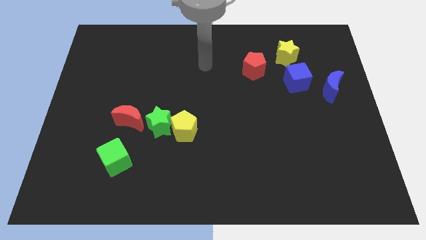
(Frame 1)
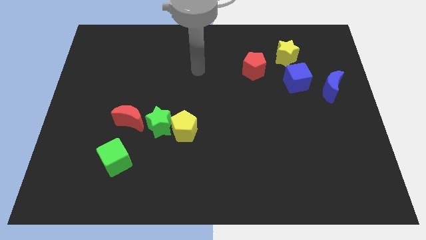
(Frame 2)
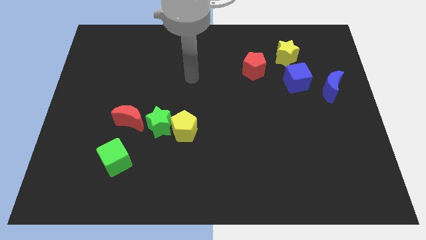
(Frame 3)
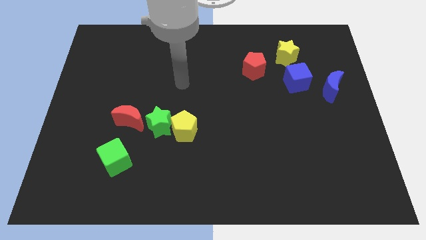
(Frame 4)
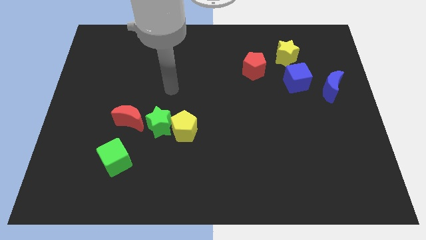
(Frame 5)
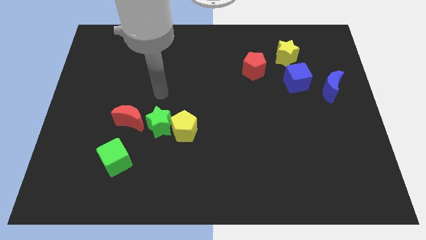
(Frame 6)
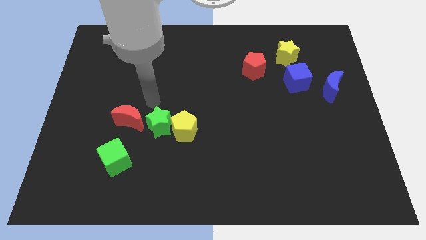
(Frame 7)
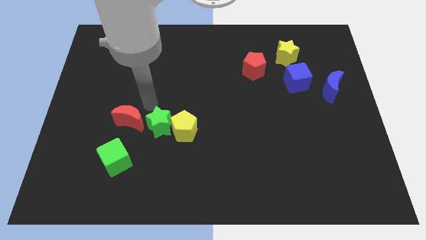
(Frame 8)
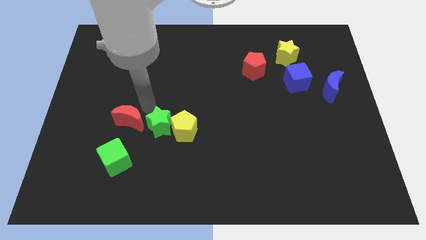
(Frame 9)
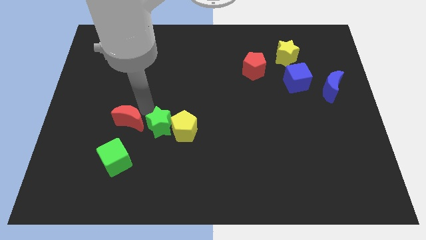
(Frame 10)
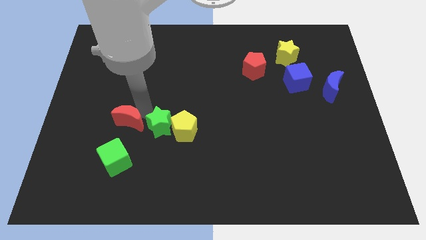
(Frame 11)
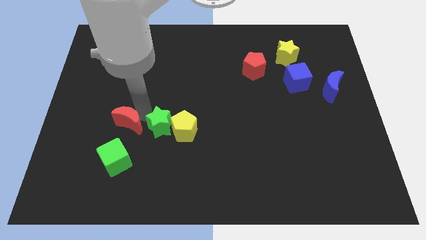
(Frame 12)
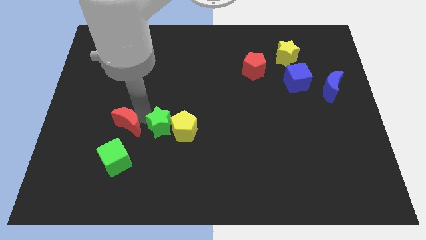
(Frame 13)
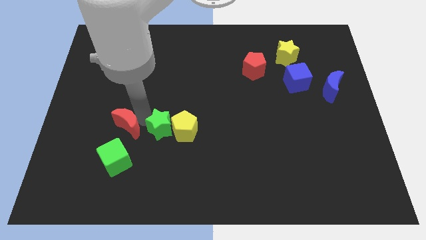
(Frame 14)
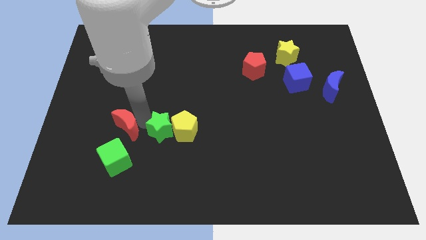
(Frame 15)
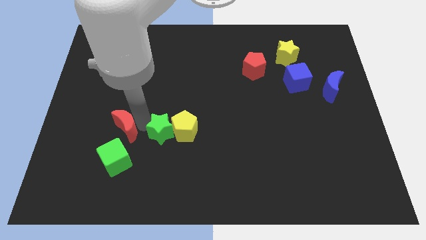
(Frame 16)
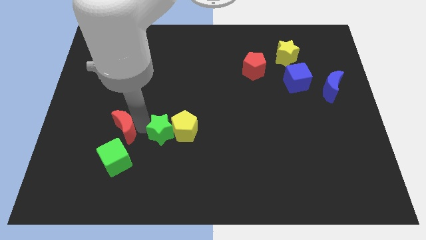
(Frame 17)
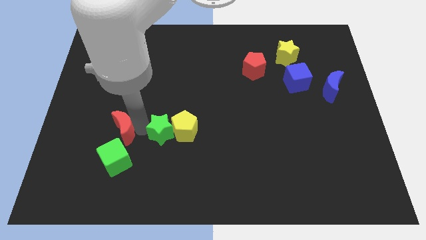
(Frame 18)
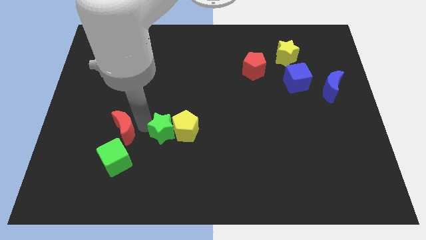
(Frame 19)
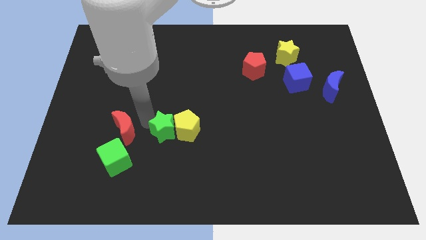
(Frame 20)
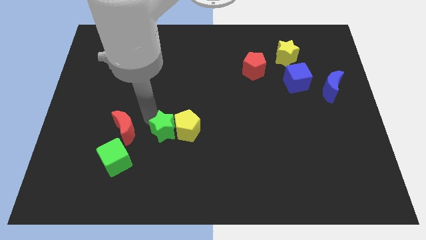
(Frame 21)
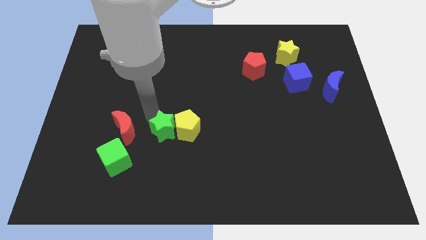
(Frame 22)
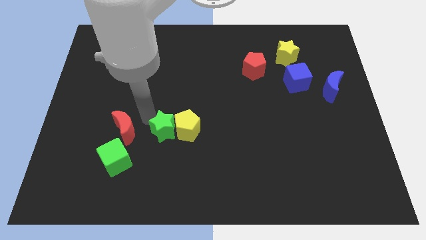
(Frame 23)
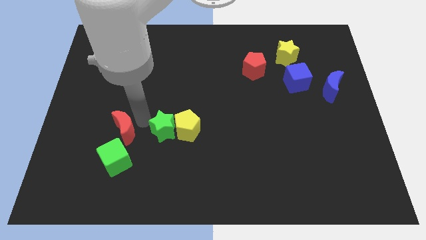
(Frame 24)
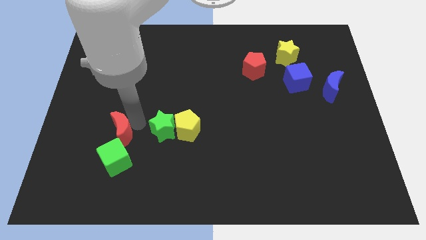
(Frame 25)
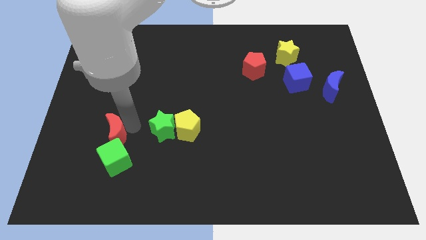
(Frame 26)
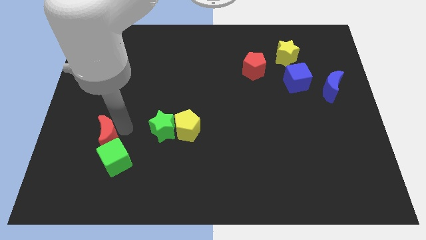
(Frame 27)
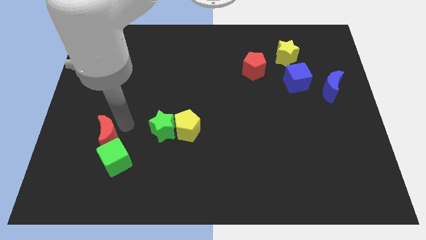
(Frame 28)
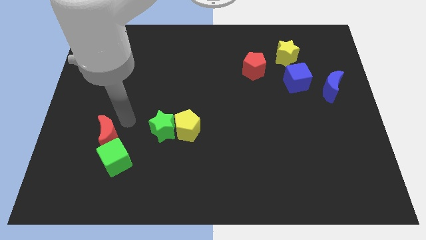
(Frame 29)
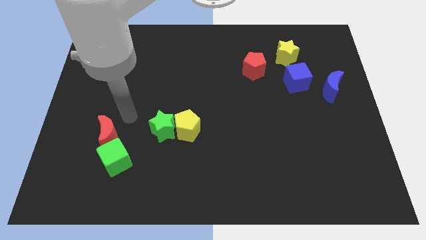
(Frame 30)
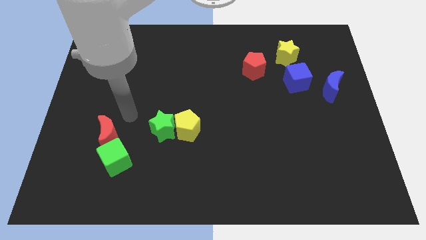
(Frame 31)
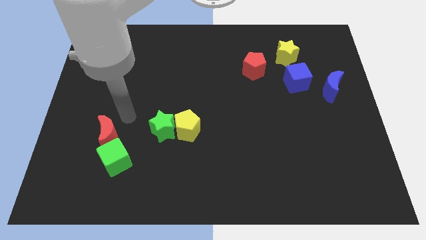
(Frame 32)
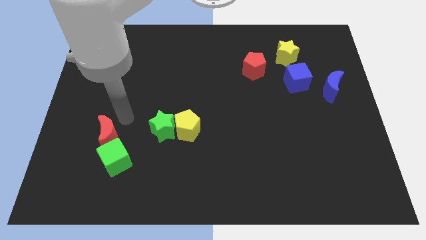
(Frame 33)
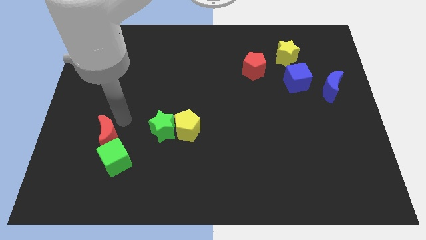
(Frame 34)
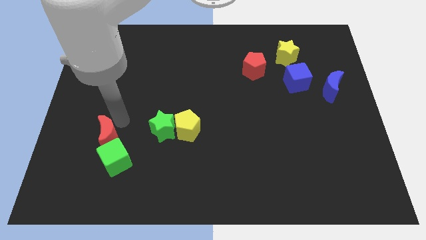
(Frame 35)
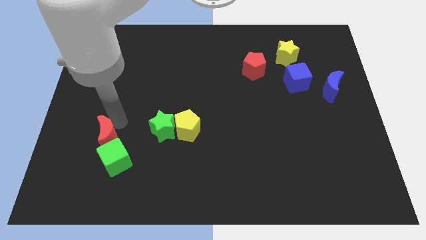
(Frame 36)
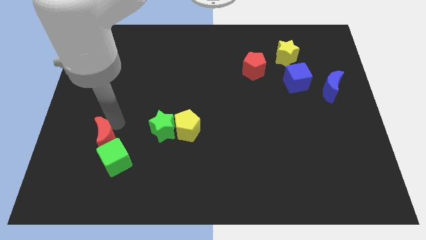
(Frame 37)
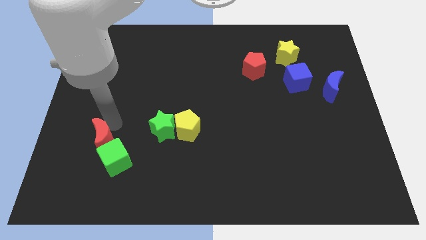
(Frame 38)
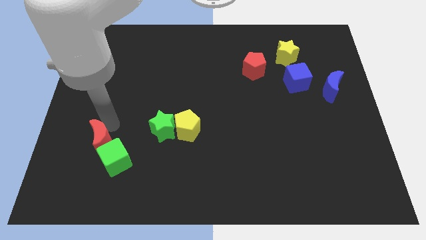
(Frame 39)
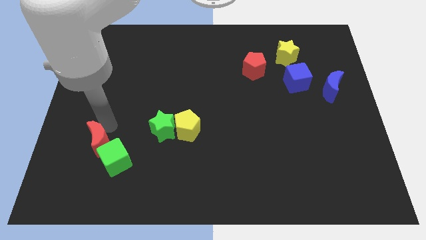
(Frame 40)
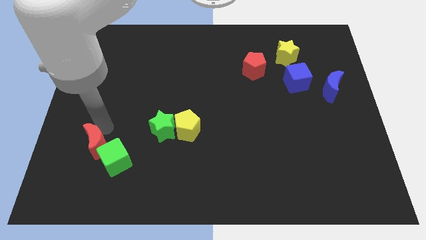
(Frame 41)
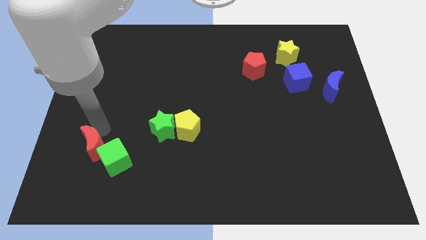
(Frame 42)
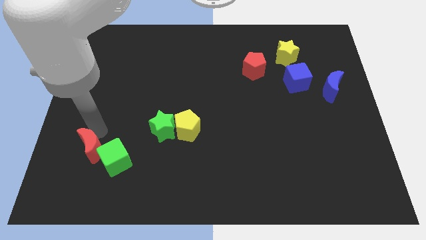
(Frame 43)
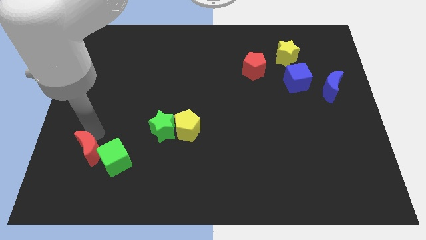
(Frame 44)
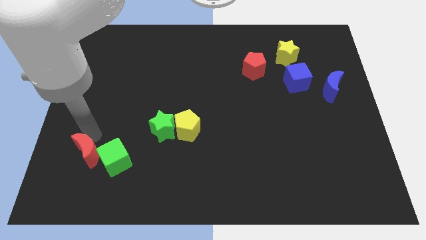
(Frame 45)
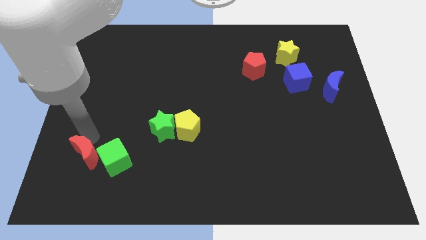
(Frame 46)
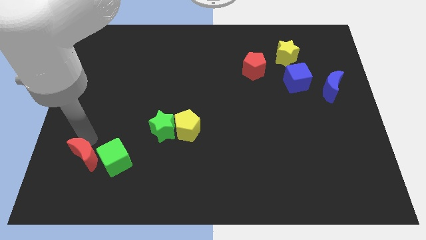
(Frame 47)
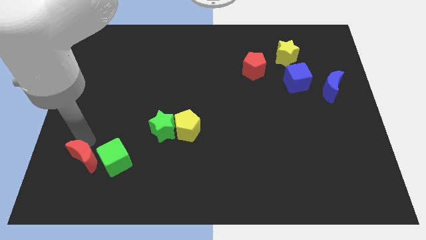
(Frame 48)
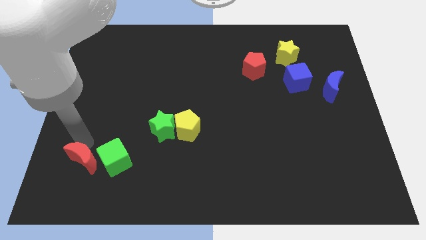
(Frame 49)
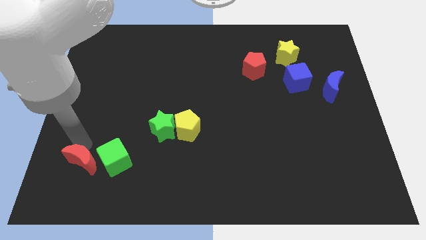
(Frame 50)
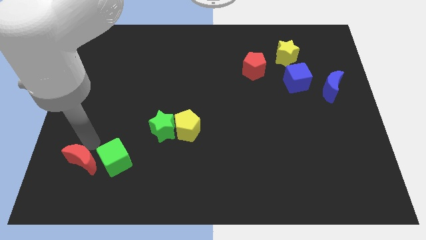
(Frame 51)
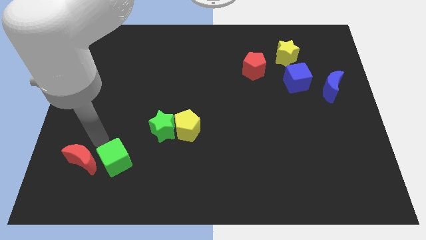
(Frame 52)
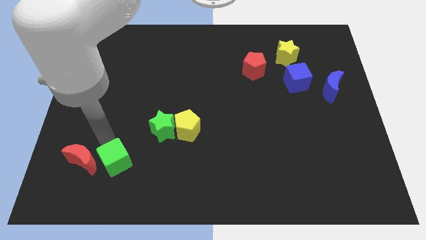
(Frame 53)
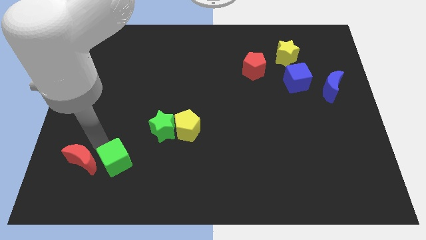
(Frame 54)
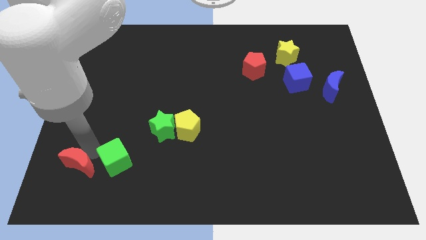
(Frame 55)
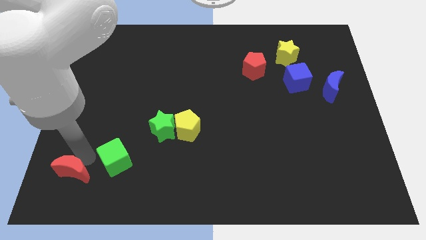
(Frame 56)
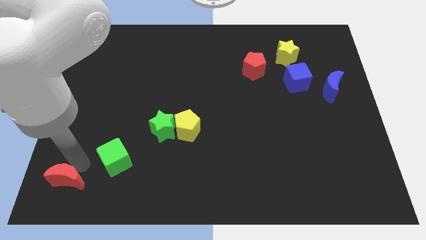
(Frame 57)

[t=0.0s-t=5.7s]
slide the red moon to the lower left corner
